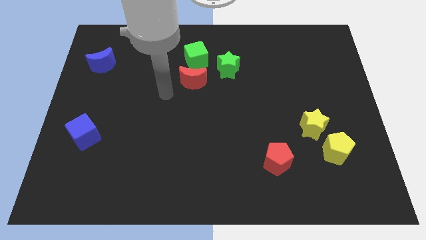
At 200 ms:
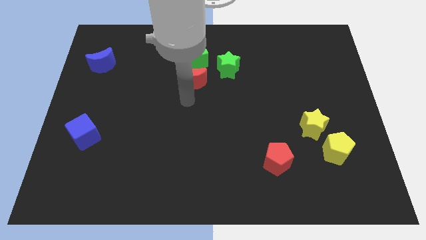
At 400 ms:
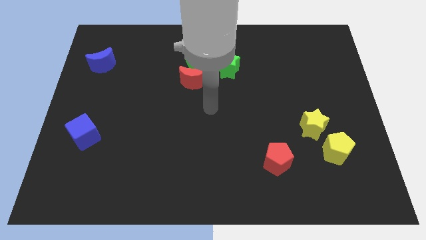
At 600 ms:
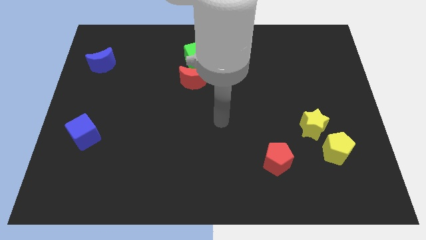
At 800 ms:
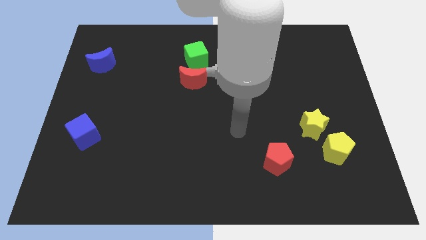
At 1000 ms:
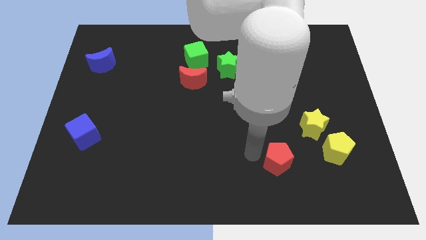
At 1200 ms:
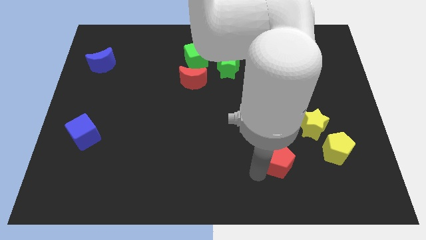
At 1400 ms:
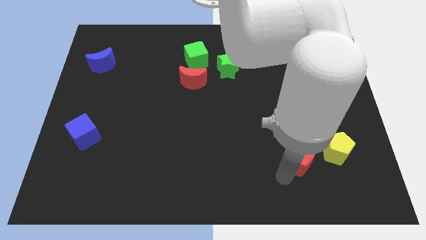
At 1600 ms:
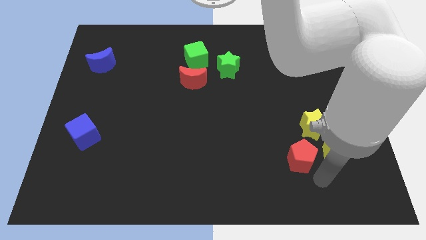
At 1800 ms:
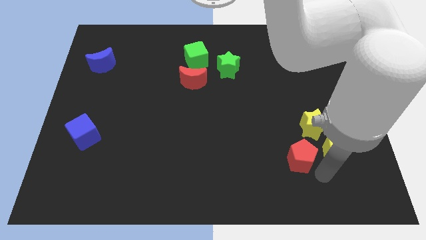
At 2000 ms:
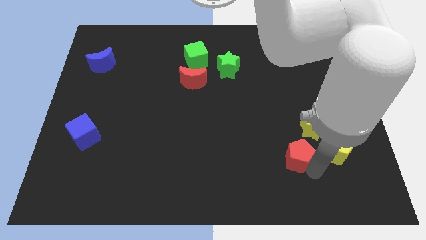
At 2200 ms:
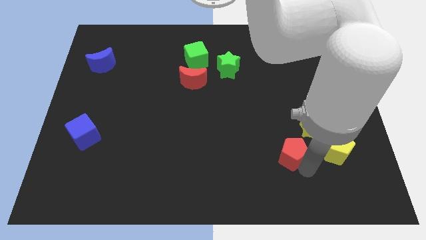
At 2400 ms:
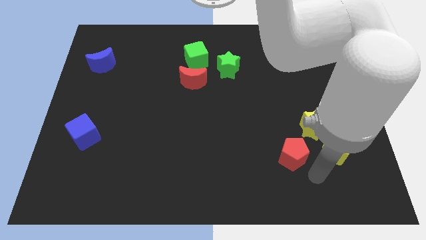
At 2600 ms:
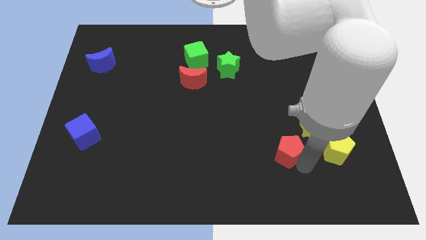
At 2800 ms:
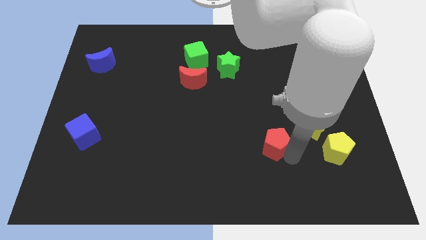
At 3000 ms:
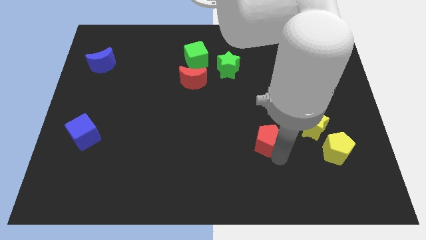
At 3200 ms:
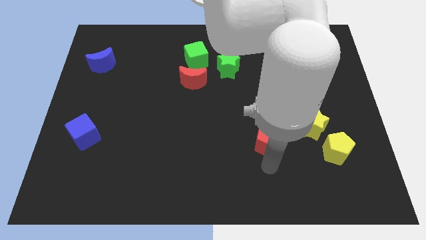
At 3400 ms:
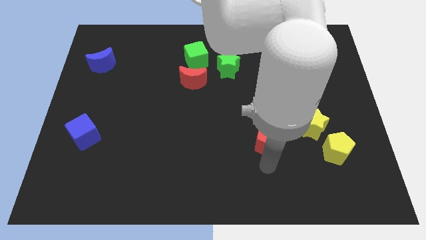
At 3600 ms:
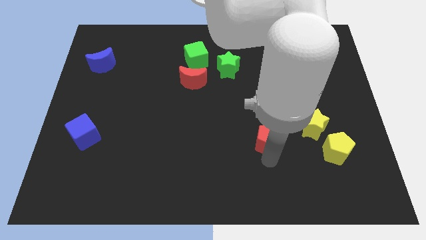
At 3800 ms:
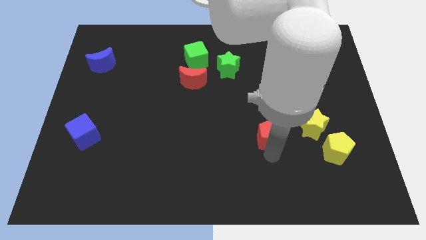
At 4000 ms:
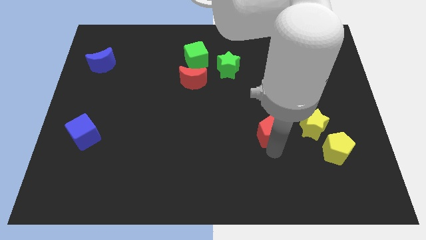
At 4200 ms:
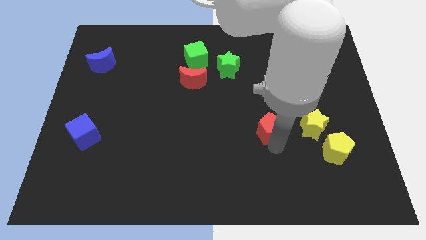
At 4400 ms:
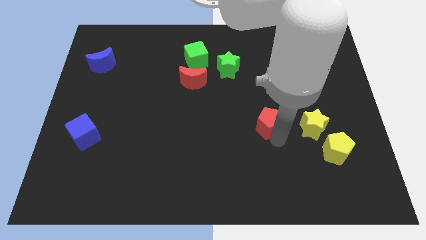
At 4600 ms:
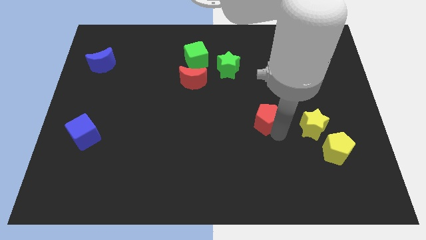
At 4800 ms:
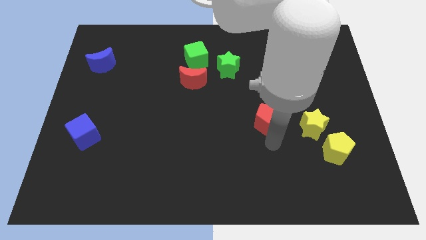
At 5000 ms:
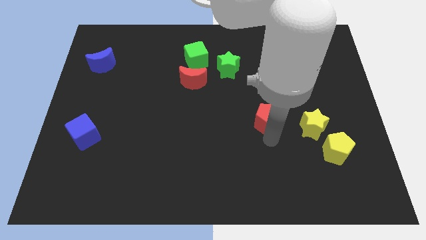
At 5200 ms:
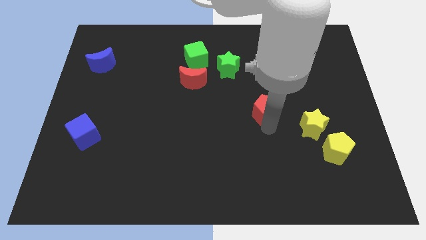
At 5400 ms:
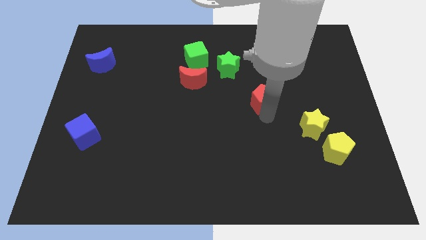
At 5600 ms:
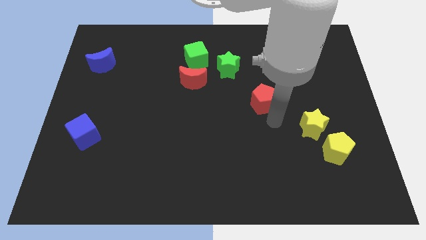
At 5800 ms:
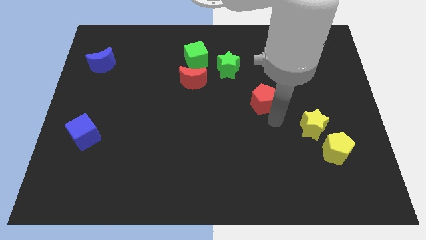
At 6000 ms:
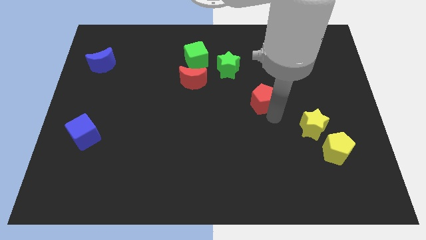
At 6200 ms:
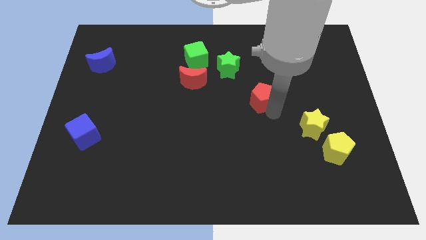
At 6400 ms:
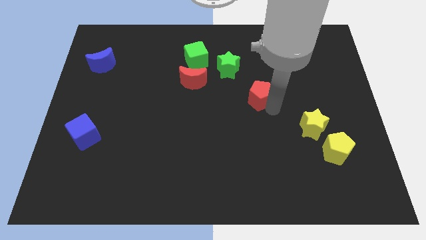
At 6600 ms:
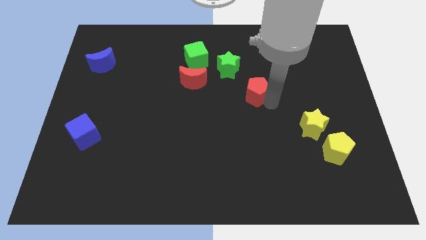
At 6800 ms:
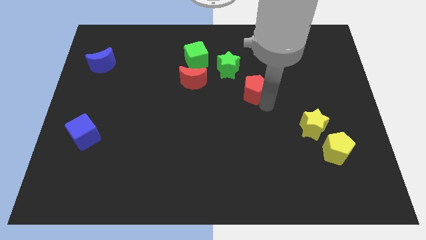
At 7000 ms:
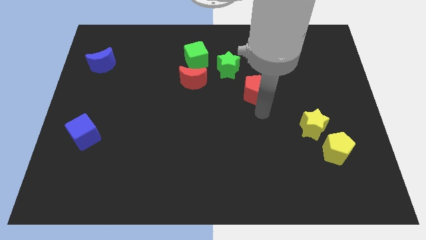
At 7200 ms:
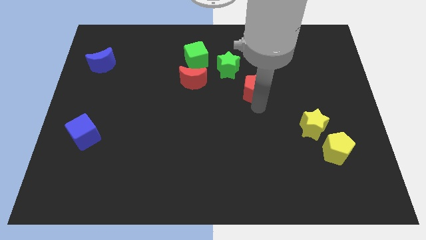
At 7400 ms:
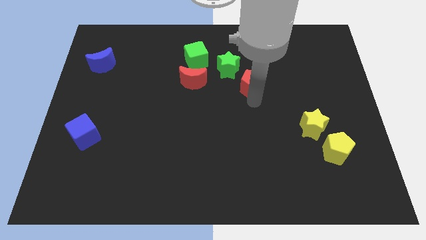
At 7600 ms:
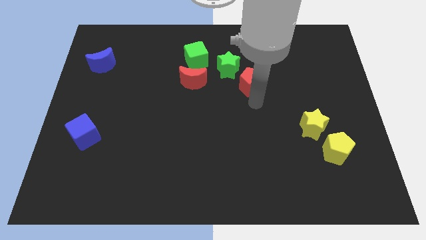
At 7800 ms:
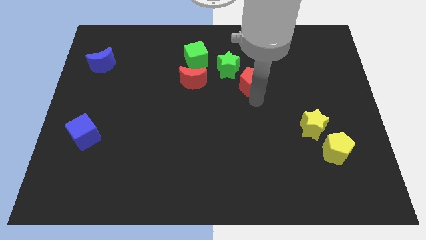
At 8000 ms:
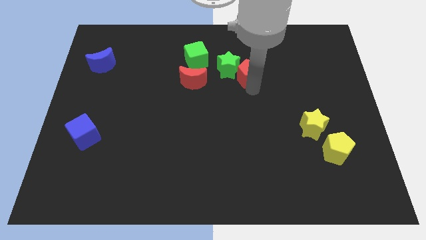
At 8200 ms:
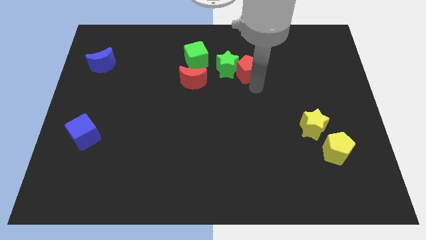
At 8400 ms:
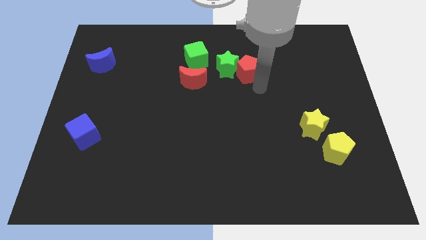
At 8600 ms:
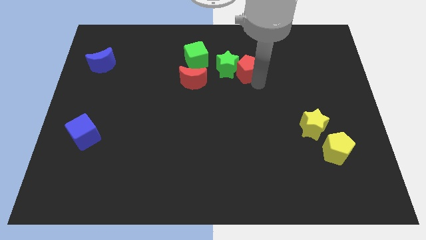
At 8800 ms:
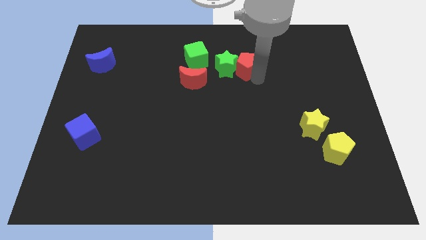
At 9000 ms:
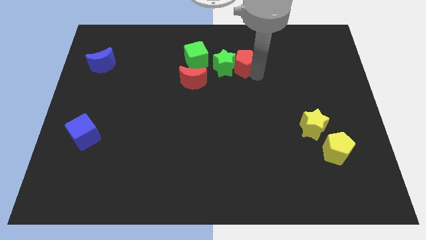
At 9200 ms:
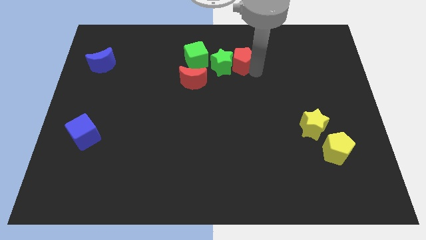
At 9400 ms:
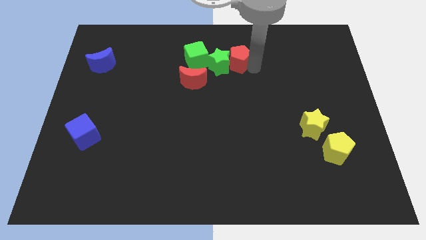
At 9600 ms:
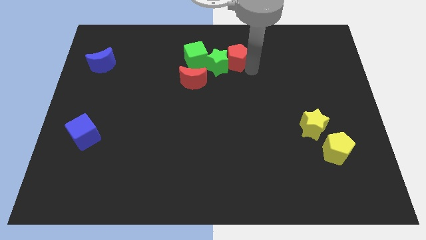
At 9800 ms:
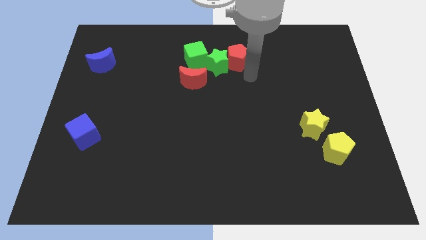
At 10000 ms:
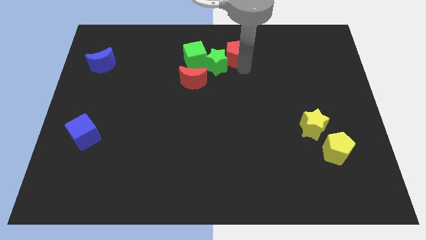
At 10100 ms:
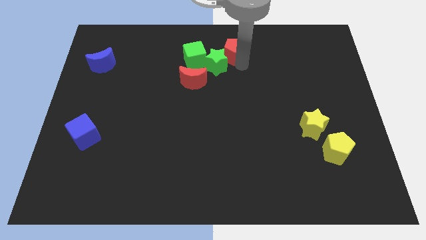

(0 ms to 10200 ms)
slide the red pentagon to the towards your base

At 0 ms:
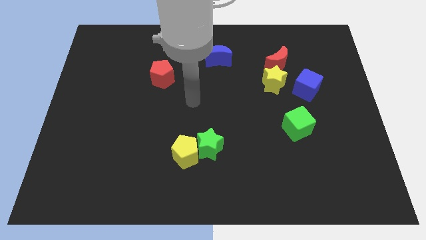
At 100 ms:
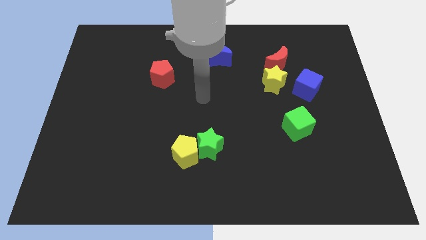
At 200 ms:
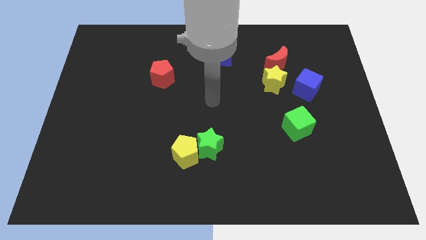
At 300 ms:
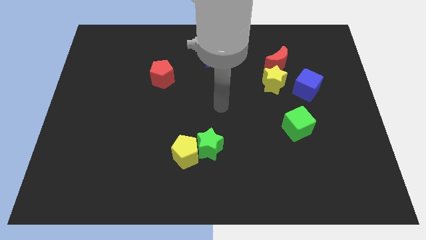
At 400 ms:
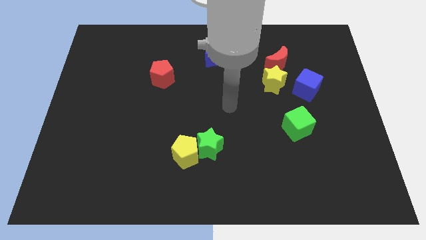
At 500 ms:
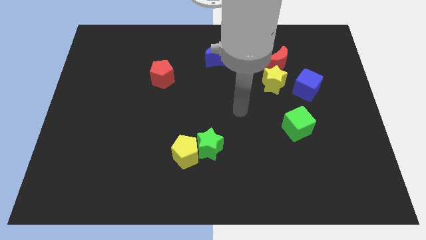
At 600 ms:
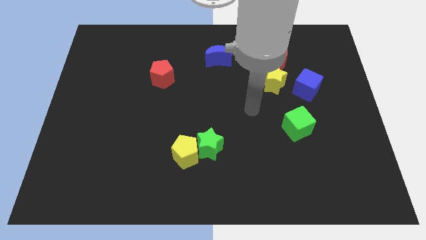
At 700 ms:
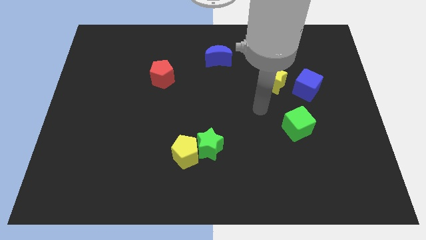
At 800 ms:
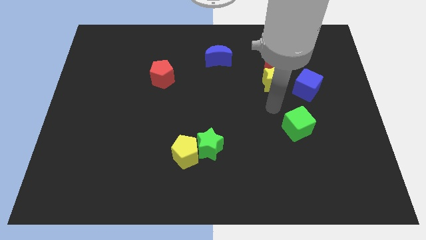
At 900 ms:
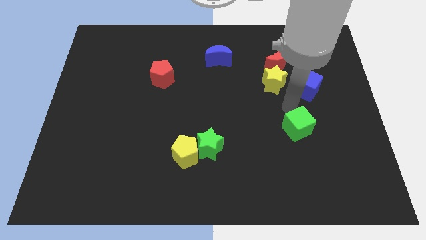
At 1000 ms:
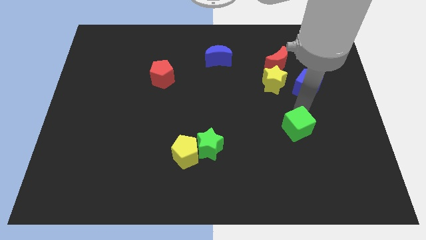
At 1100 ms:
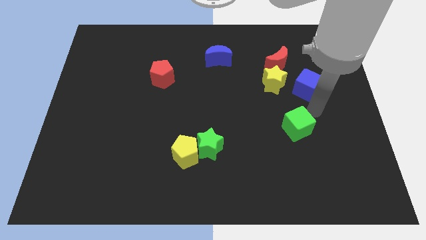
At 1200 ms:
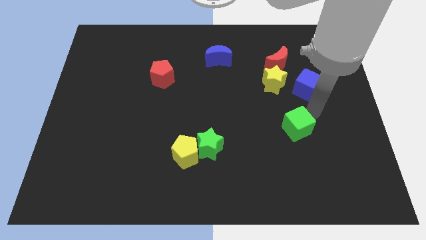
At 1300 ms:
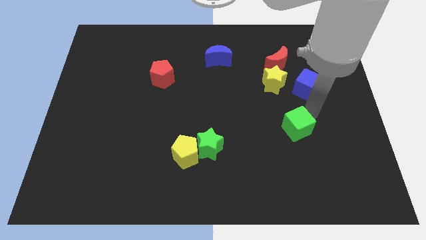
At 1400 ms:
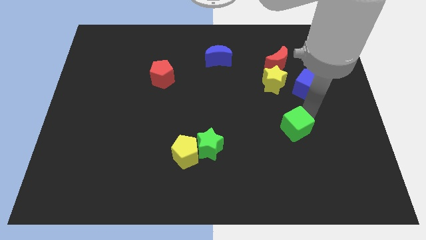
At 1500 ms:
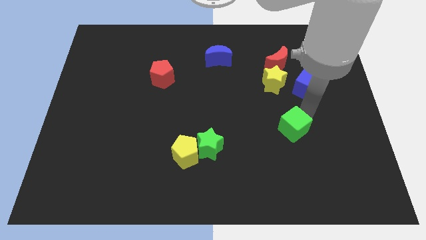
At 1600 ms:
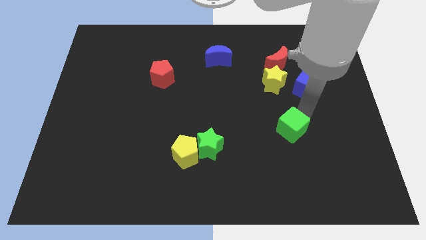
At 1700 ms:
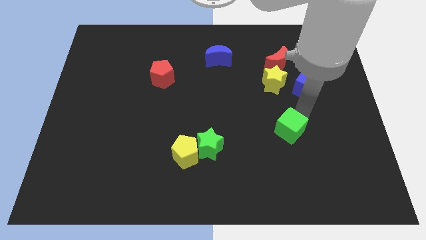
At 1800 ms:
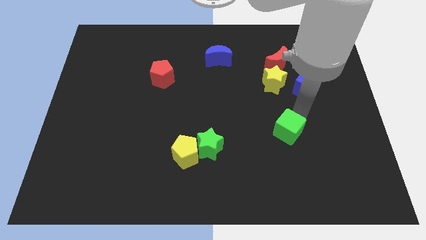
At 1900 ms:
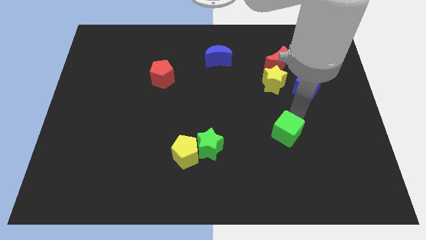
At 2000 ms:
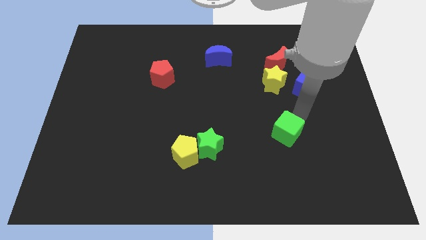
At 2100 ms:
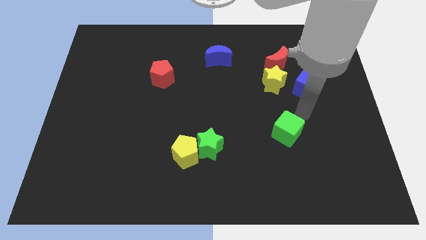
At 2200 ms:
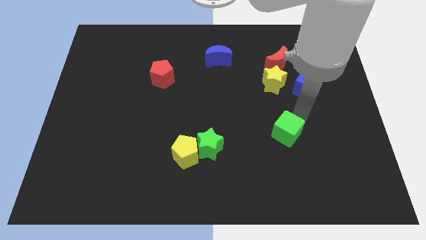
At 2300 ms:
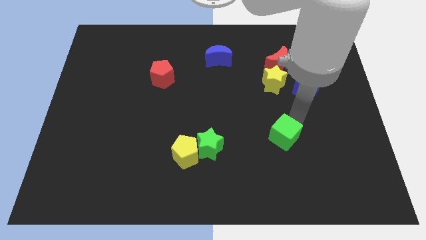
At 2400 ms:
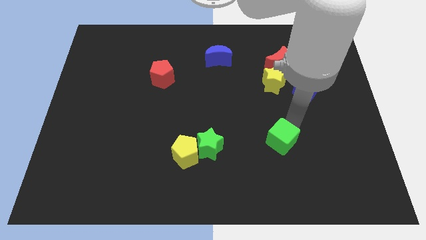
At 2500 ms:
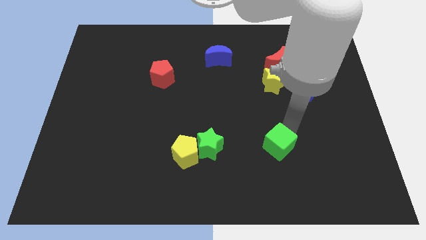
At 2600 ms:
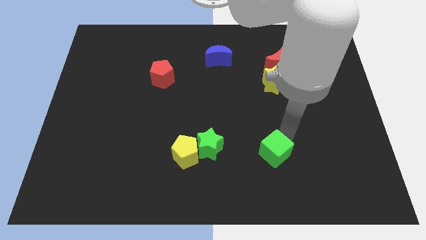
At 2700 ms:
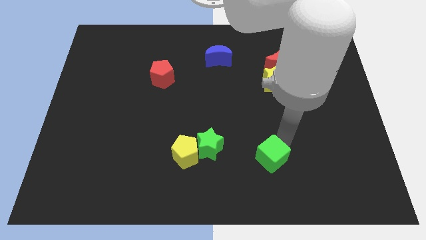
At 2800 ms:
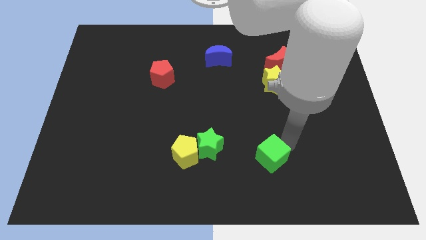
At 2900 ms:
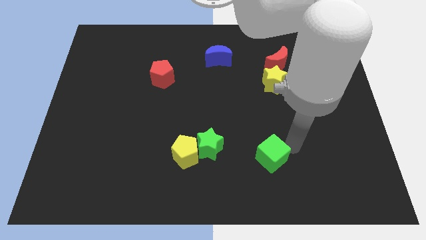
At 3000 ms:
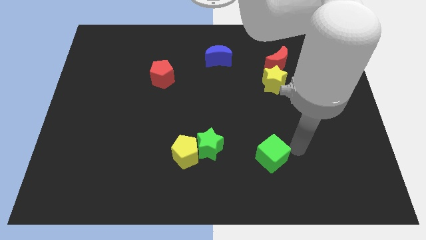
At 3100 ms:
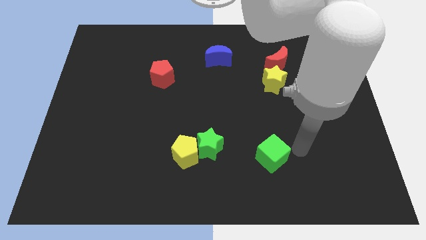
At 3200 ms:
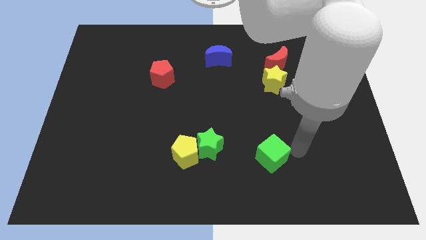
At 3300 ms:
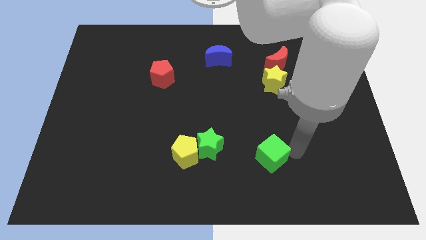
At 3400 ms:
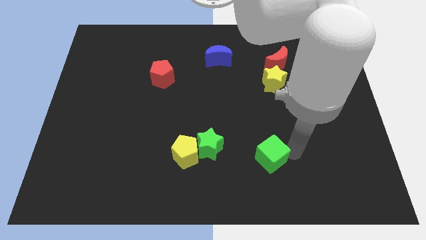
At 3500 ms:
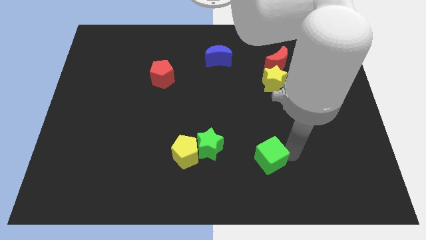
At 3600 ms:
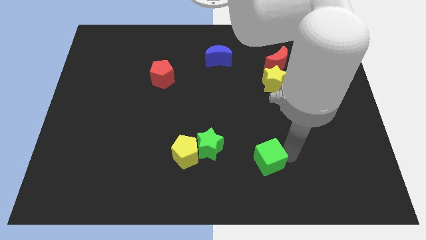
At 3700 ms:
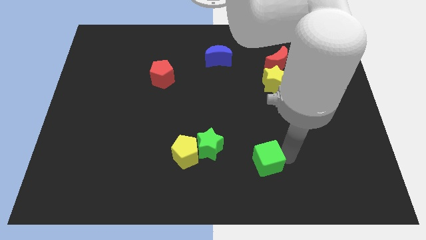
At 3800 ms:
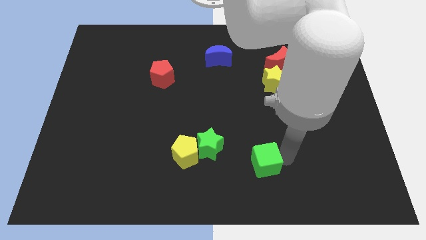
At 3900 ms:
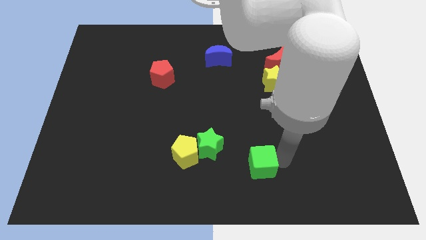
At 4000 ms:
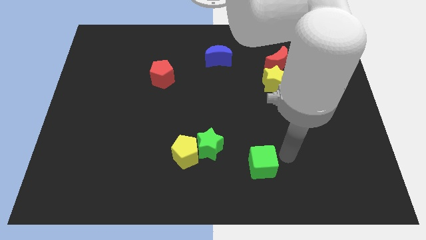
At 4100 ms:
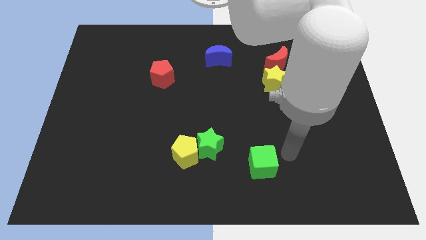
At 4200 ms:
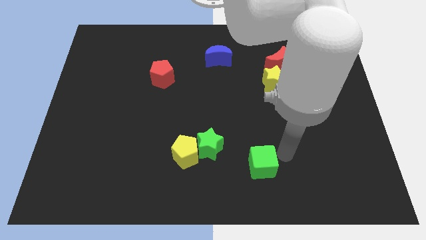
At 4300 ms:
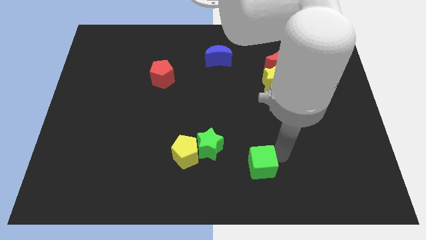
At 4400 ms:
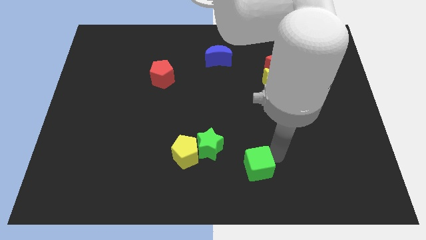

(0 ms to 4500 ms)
move the green cube to the bottom side
